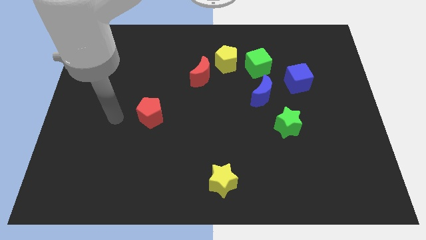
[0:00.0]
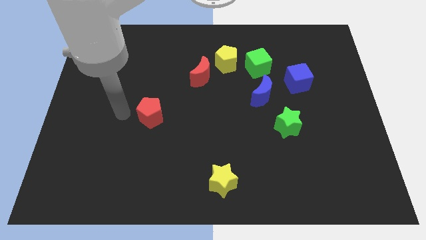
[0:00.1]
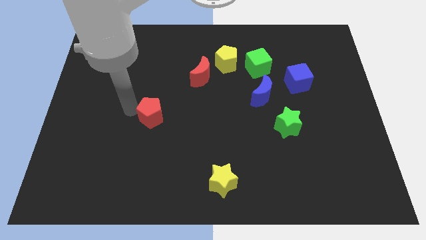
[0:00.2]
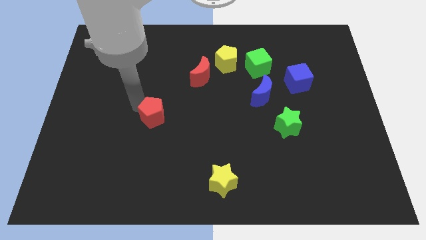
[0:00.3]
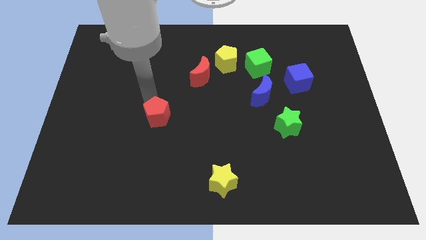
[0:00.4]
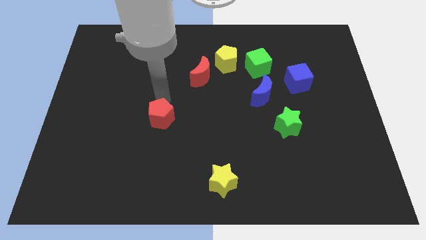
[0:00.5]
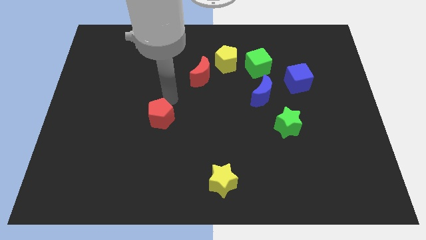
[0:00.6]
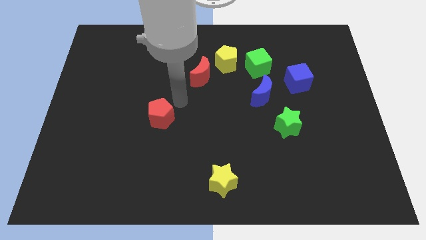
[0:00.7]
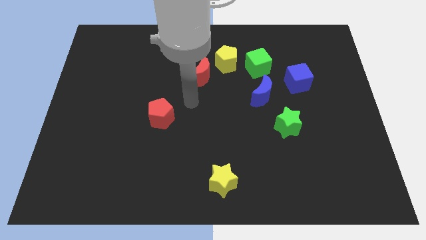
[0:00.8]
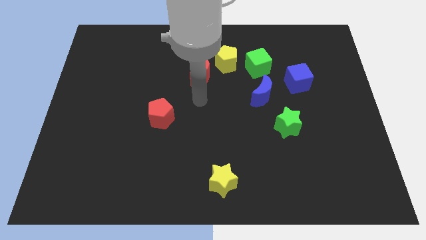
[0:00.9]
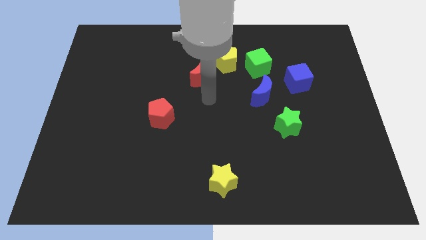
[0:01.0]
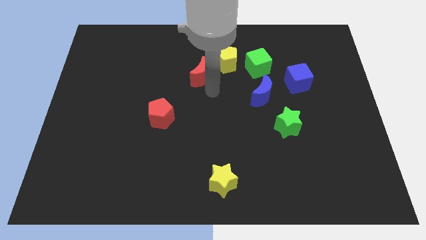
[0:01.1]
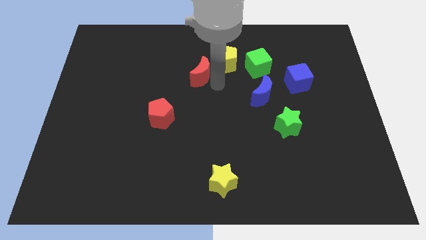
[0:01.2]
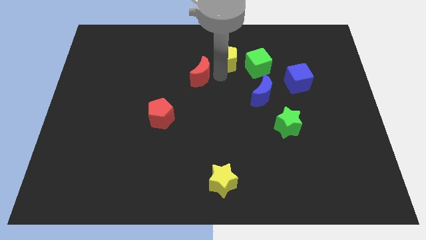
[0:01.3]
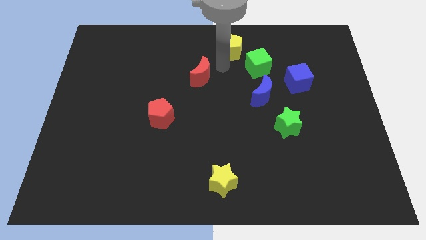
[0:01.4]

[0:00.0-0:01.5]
move the red moon away from the yellow pentagon

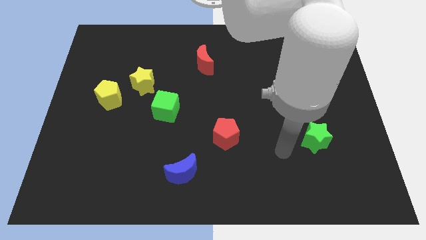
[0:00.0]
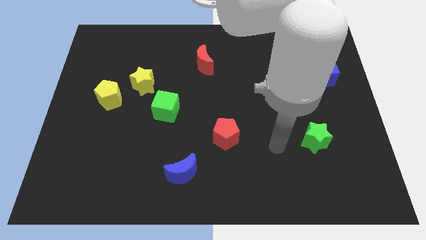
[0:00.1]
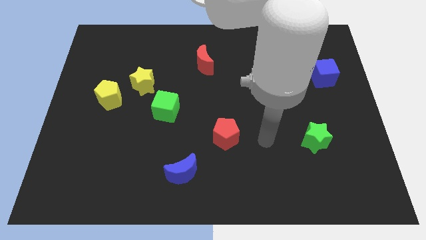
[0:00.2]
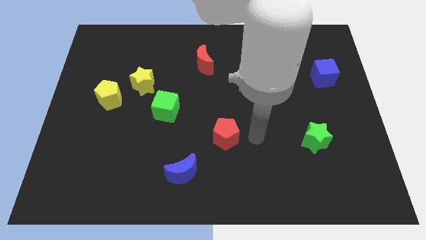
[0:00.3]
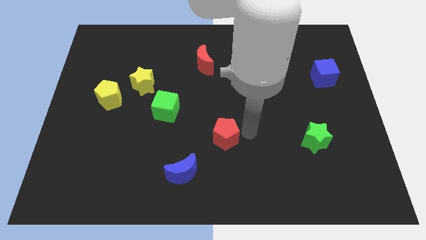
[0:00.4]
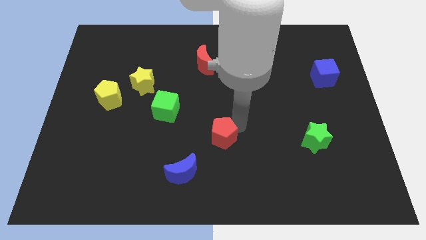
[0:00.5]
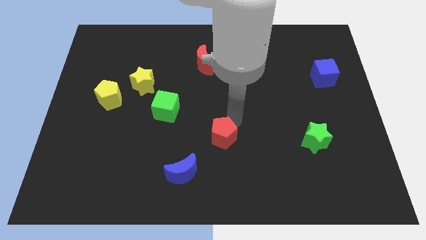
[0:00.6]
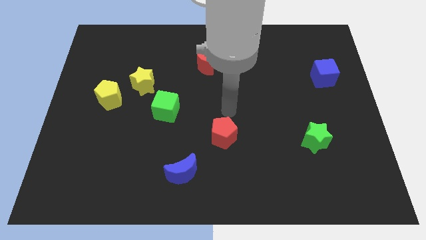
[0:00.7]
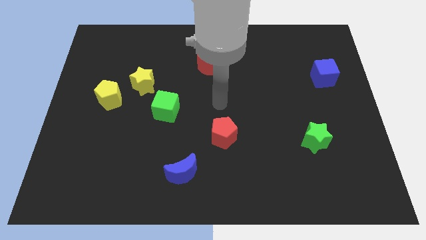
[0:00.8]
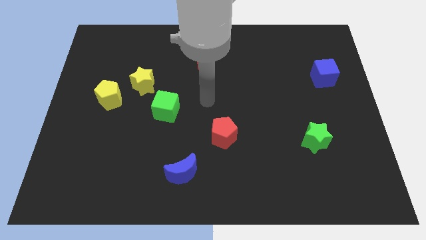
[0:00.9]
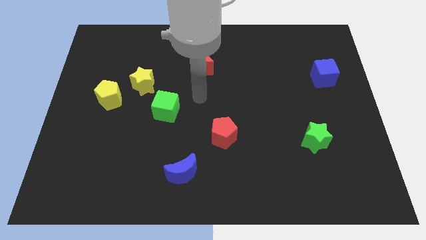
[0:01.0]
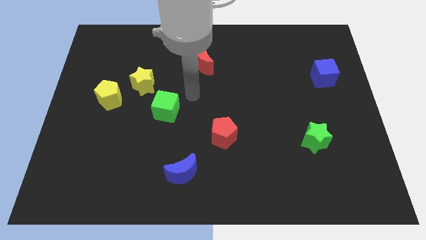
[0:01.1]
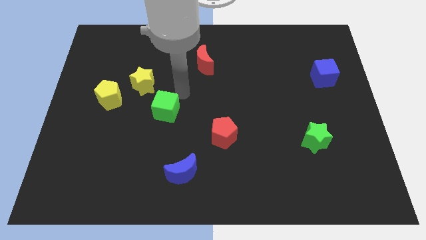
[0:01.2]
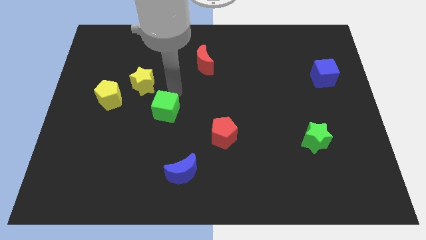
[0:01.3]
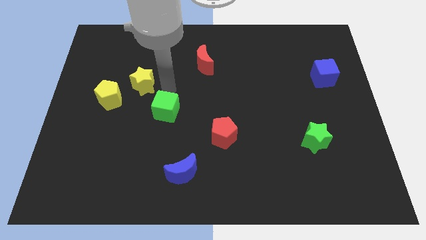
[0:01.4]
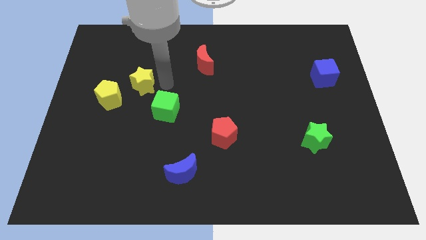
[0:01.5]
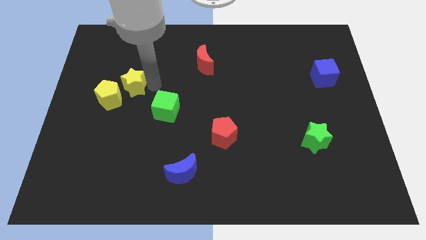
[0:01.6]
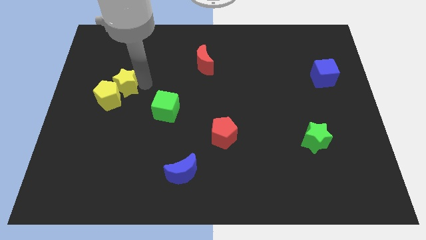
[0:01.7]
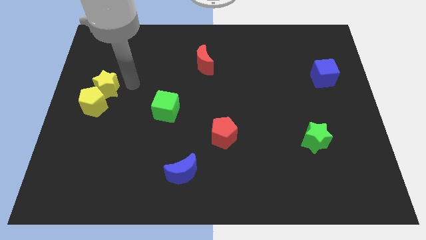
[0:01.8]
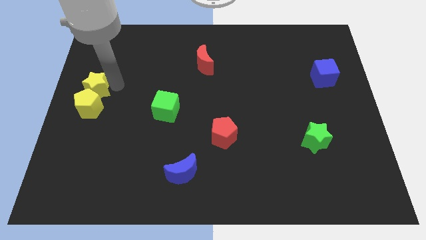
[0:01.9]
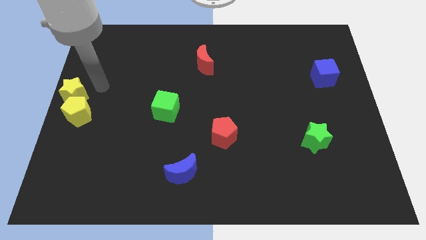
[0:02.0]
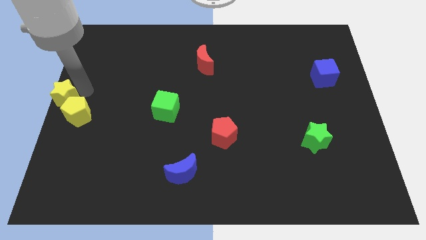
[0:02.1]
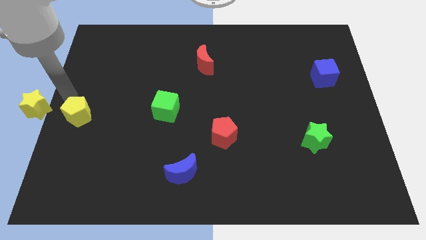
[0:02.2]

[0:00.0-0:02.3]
pull the yellow pentagon apart from the yellow star

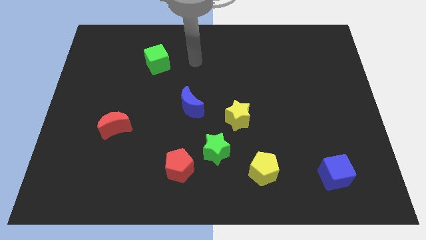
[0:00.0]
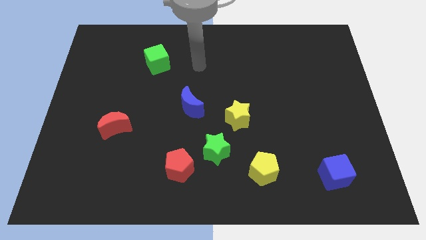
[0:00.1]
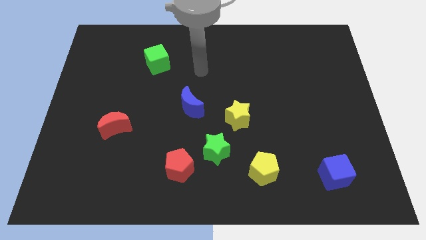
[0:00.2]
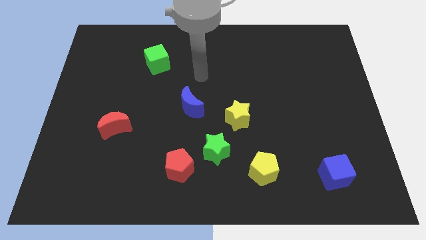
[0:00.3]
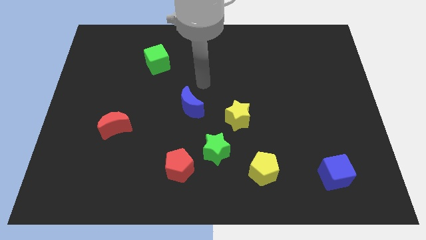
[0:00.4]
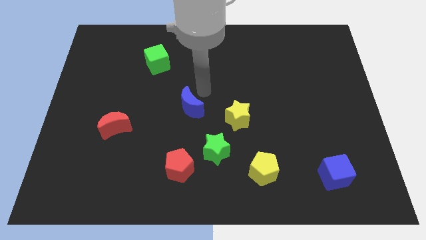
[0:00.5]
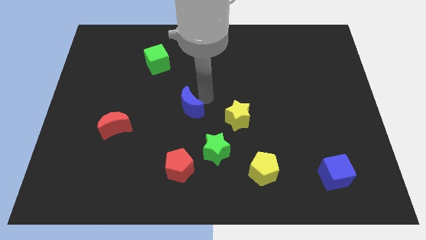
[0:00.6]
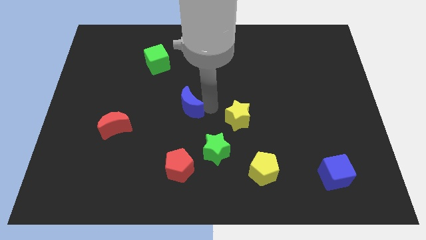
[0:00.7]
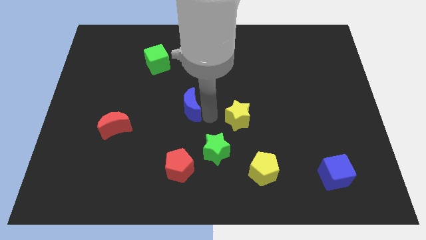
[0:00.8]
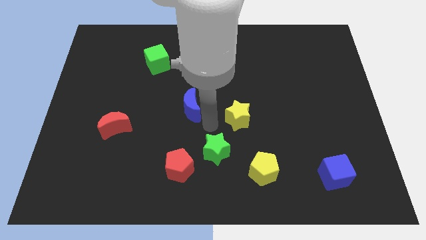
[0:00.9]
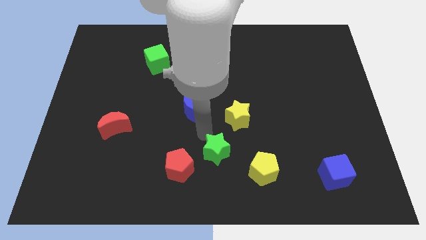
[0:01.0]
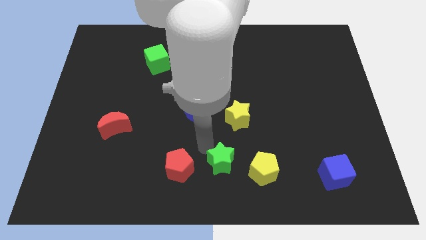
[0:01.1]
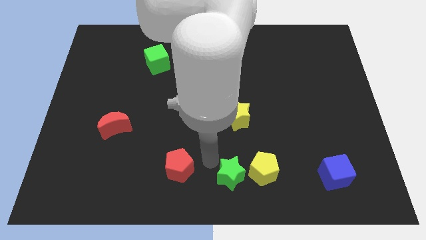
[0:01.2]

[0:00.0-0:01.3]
pull the red pentagon apart from the green star

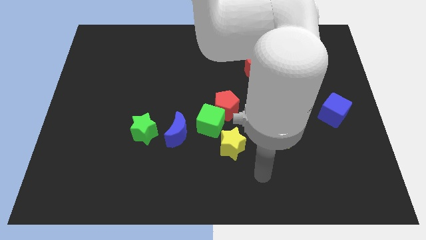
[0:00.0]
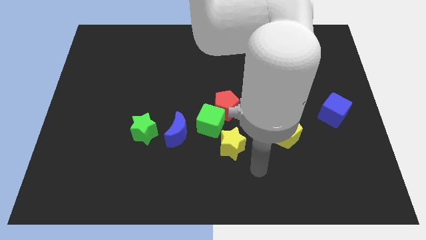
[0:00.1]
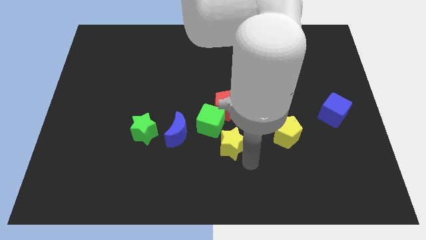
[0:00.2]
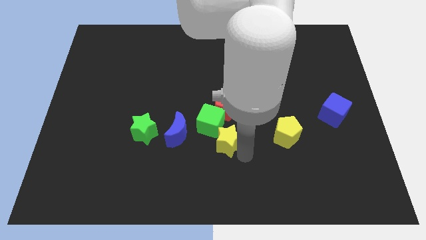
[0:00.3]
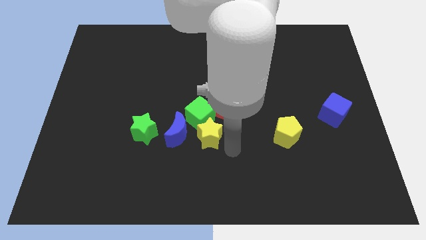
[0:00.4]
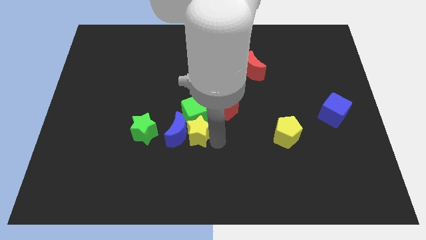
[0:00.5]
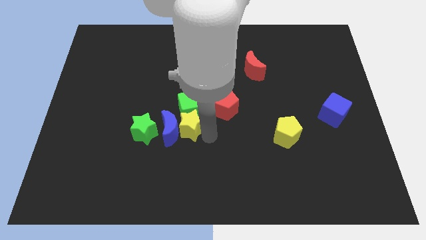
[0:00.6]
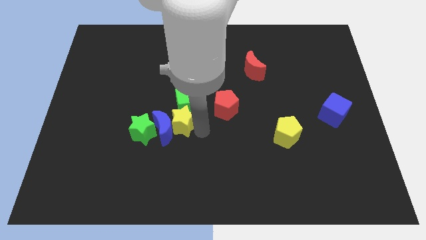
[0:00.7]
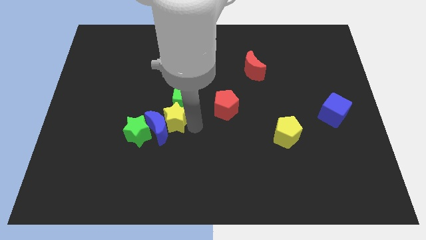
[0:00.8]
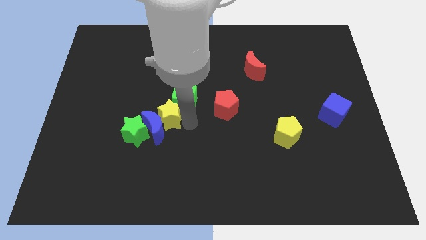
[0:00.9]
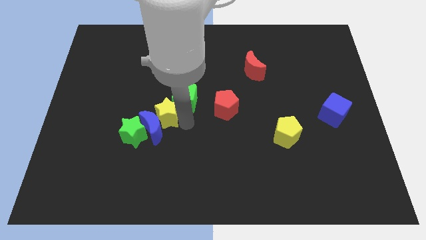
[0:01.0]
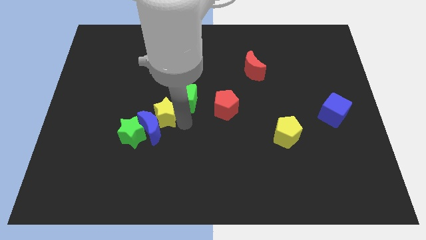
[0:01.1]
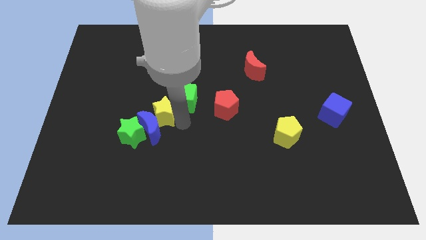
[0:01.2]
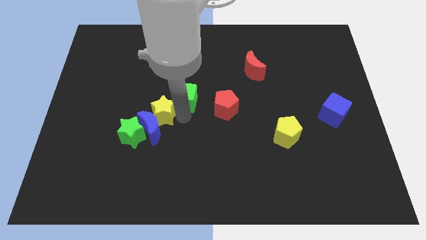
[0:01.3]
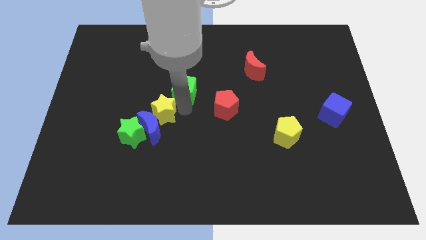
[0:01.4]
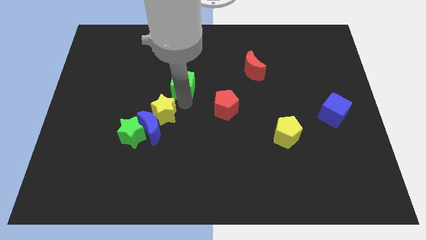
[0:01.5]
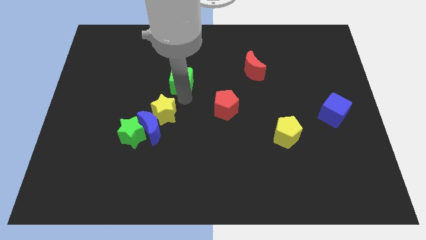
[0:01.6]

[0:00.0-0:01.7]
move the green cube away from the red pentagon, blue moon, and yellow star

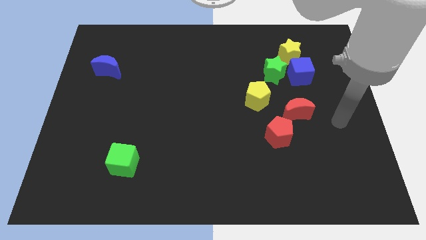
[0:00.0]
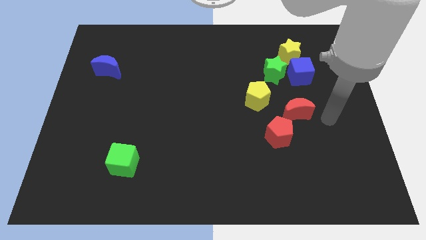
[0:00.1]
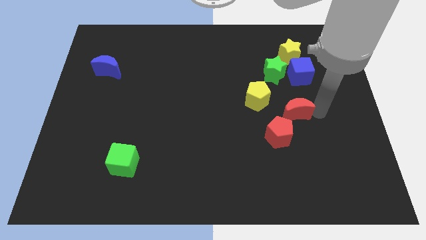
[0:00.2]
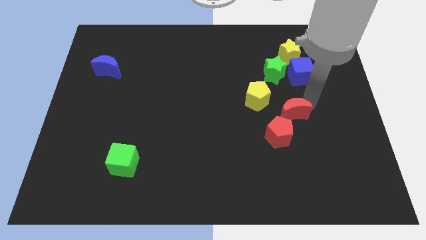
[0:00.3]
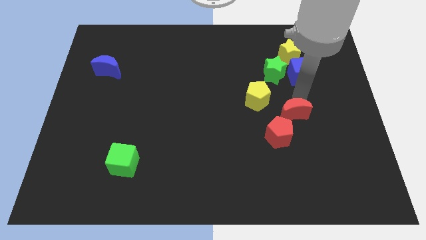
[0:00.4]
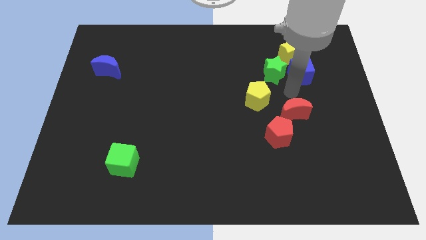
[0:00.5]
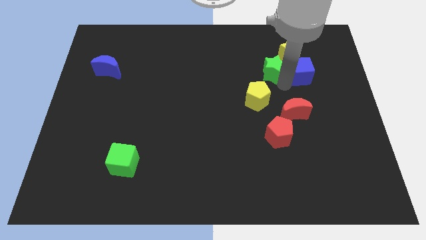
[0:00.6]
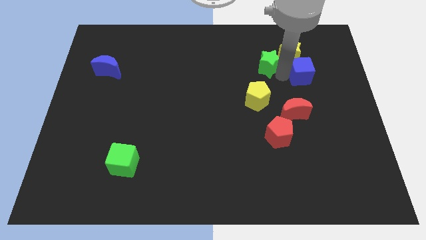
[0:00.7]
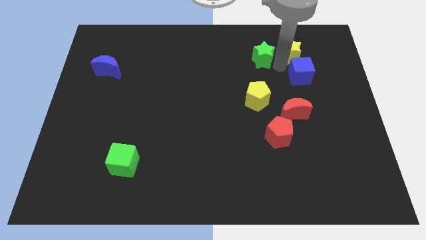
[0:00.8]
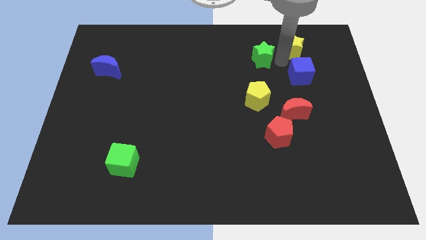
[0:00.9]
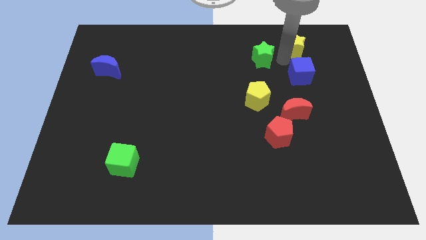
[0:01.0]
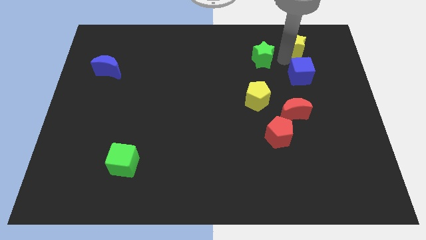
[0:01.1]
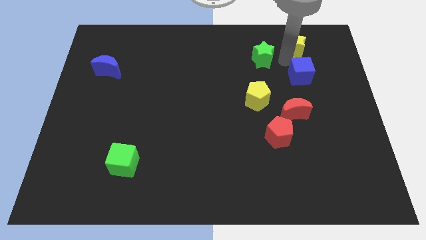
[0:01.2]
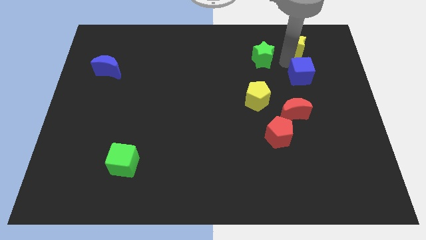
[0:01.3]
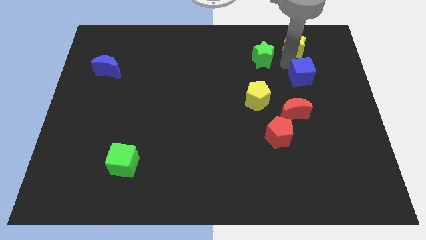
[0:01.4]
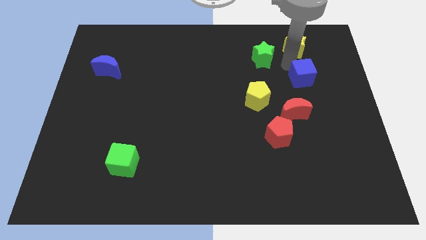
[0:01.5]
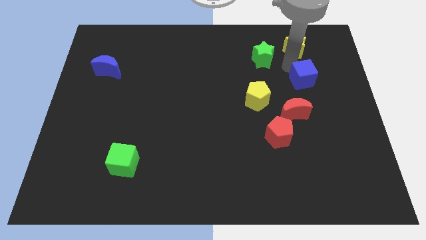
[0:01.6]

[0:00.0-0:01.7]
separate the blue cube from the green star and yellow star

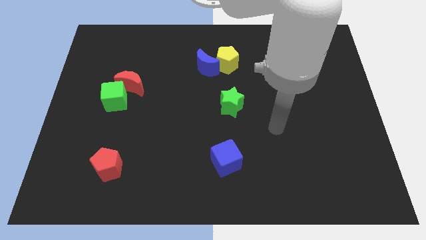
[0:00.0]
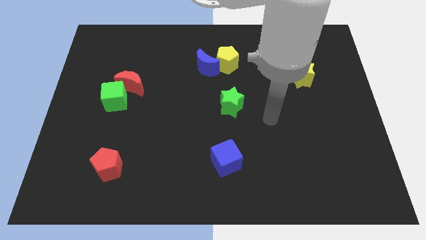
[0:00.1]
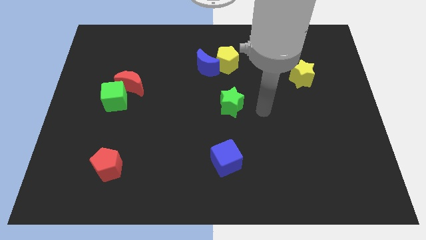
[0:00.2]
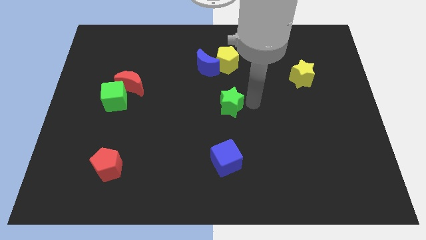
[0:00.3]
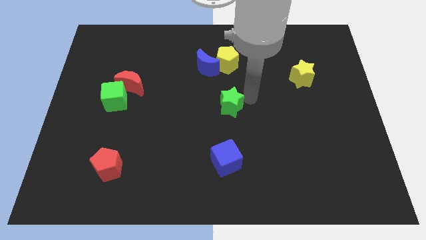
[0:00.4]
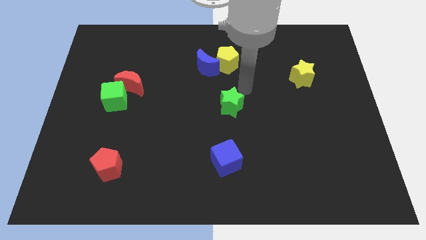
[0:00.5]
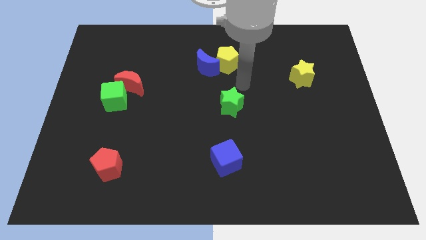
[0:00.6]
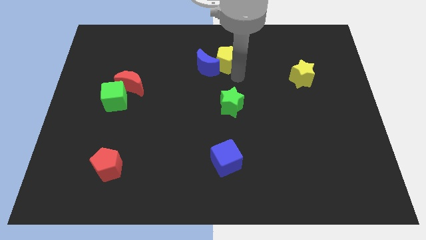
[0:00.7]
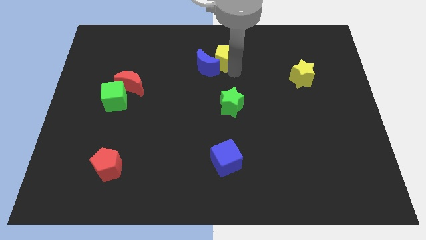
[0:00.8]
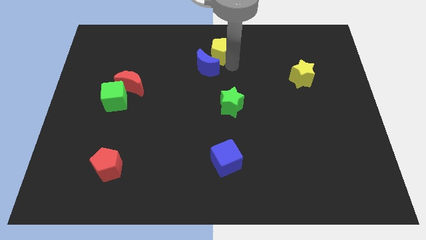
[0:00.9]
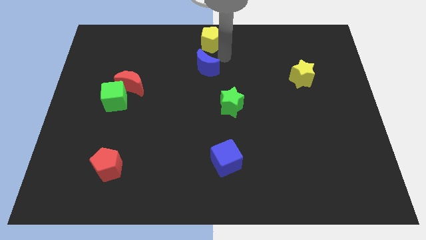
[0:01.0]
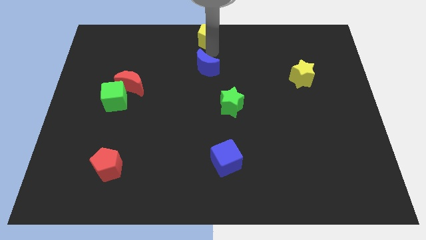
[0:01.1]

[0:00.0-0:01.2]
move the blue moon away from the yellow pentagon
